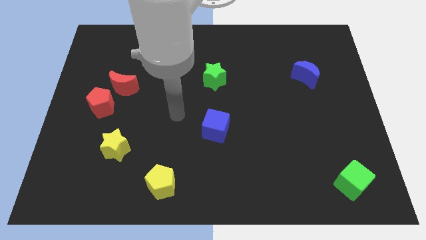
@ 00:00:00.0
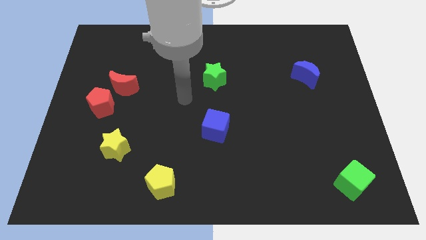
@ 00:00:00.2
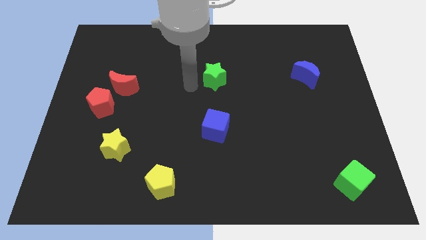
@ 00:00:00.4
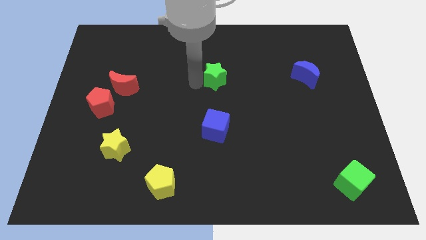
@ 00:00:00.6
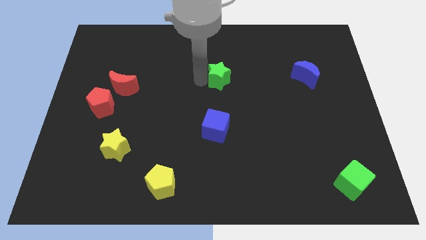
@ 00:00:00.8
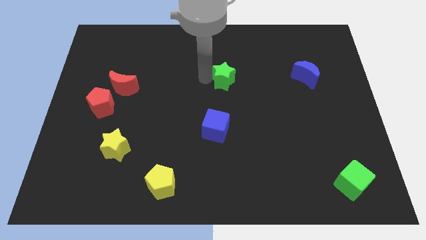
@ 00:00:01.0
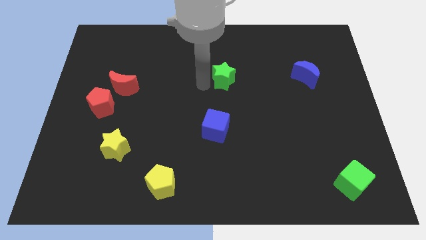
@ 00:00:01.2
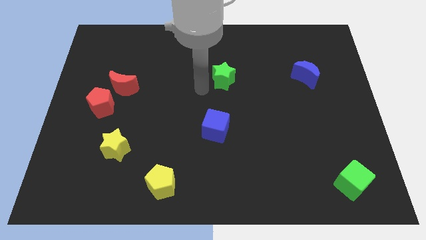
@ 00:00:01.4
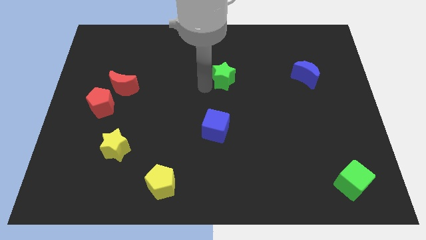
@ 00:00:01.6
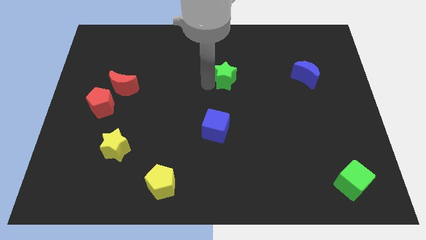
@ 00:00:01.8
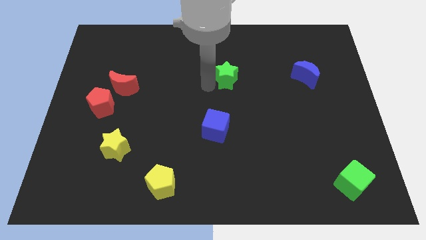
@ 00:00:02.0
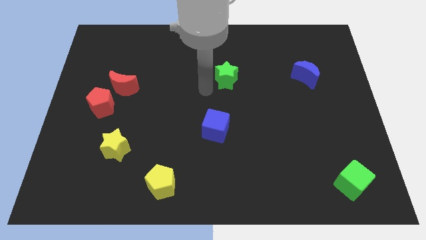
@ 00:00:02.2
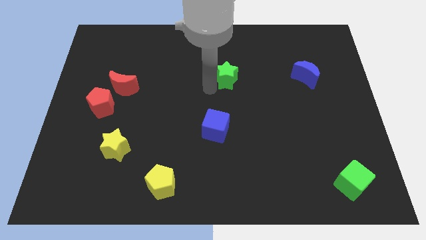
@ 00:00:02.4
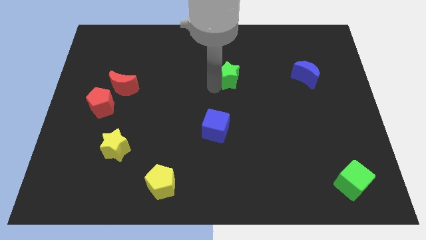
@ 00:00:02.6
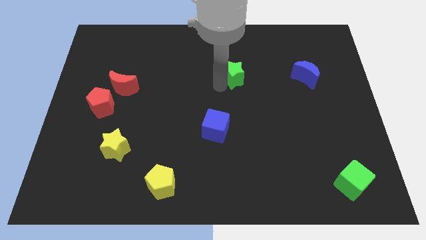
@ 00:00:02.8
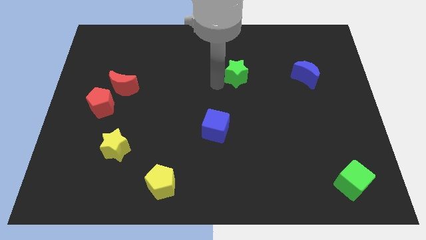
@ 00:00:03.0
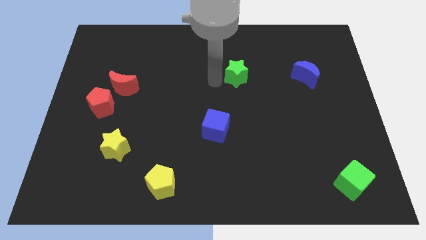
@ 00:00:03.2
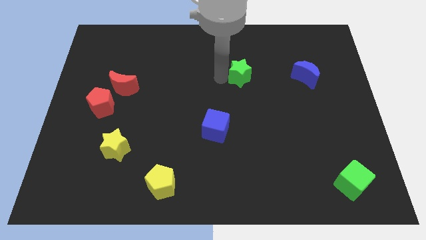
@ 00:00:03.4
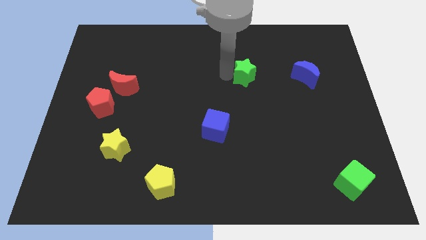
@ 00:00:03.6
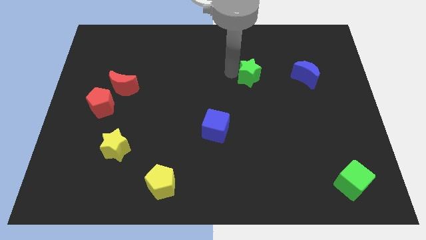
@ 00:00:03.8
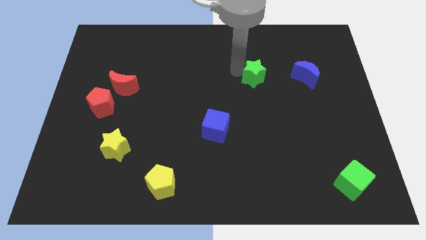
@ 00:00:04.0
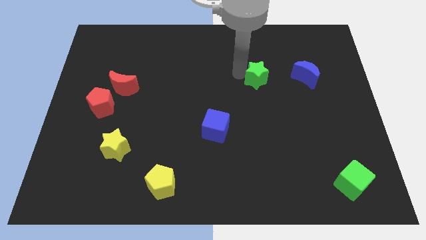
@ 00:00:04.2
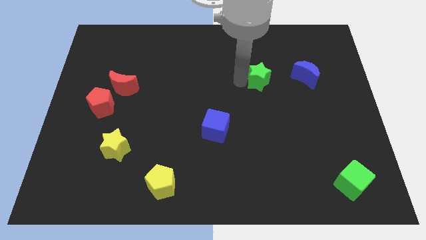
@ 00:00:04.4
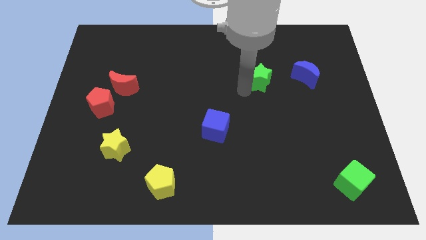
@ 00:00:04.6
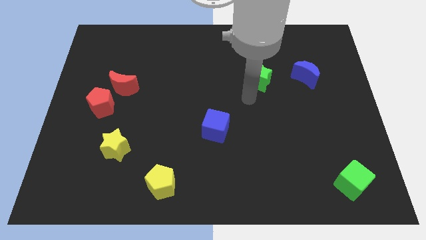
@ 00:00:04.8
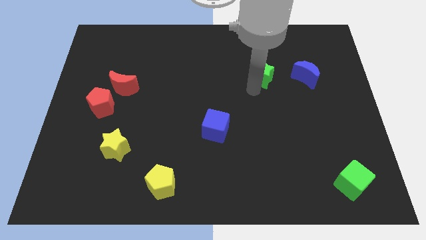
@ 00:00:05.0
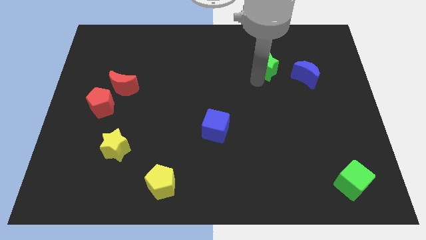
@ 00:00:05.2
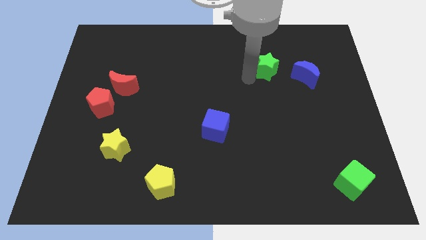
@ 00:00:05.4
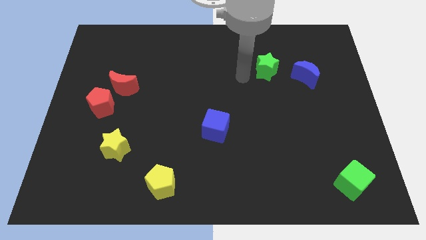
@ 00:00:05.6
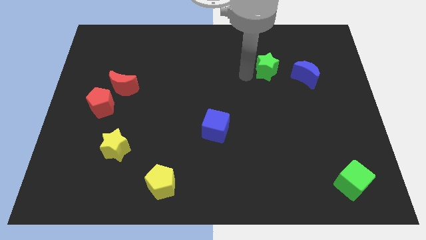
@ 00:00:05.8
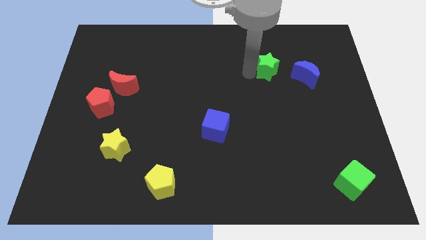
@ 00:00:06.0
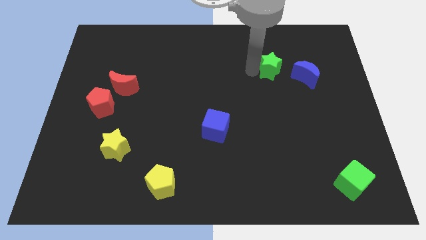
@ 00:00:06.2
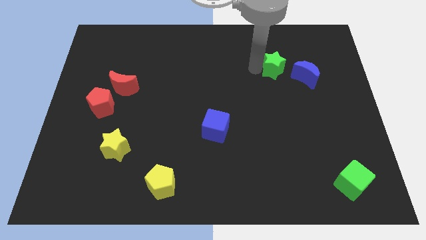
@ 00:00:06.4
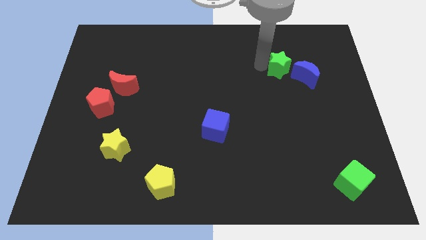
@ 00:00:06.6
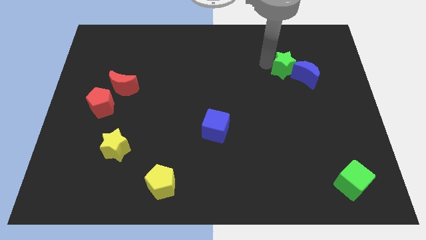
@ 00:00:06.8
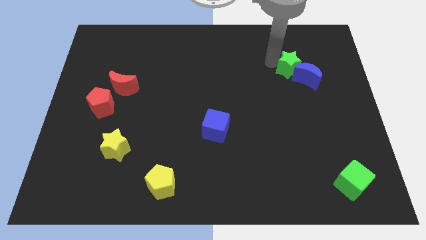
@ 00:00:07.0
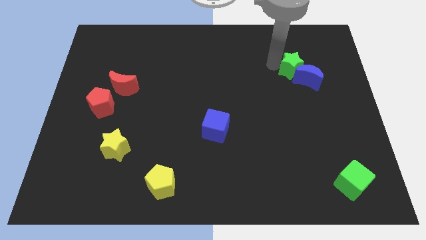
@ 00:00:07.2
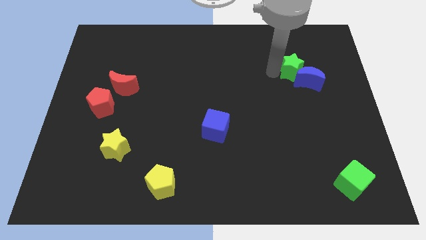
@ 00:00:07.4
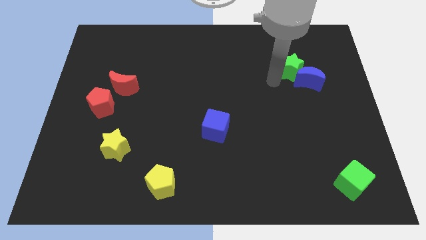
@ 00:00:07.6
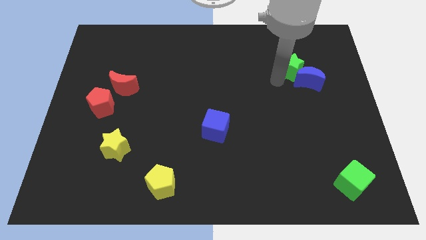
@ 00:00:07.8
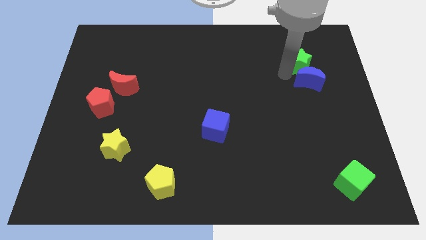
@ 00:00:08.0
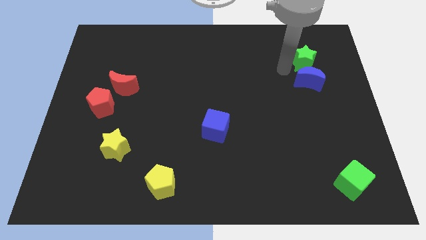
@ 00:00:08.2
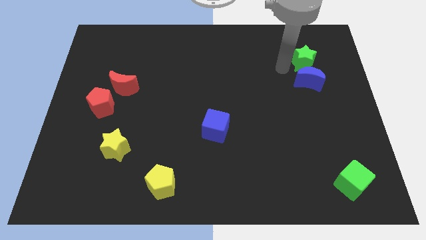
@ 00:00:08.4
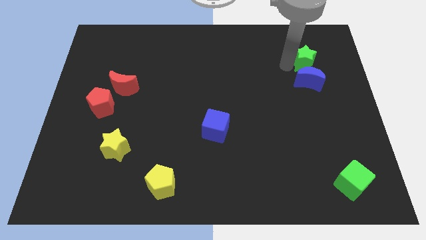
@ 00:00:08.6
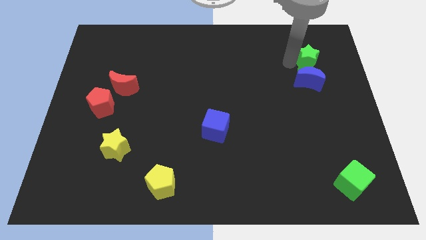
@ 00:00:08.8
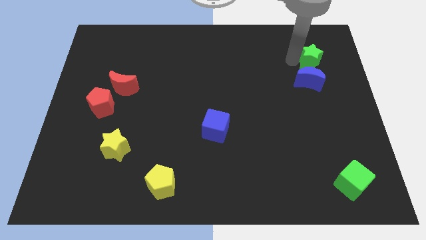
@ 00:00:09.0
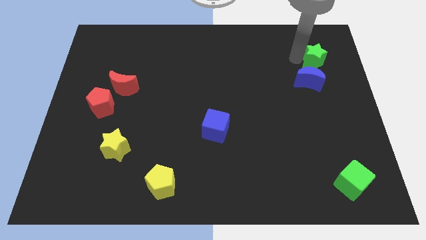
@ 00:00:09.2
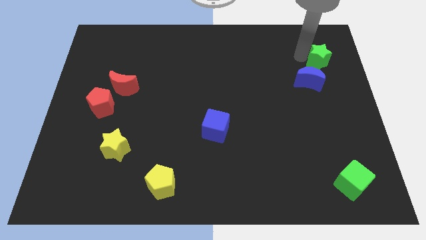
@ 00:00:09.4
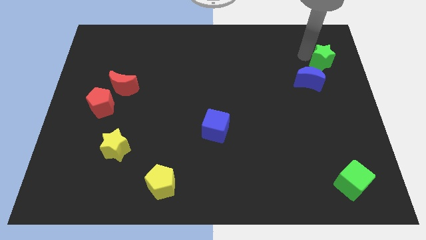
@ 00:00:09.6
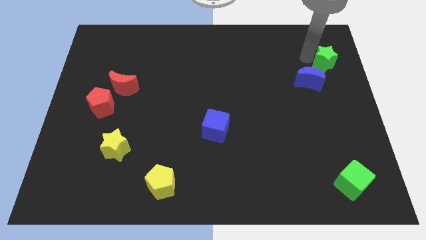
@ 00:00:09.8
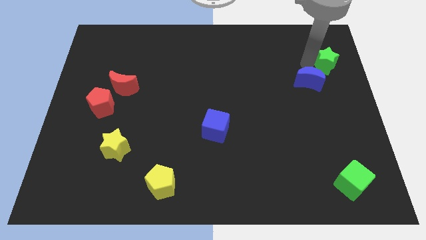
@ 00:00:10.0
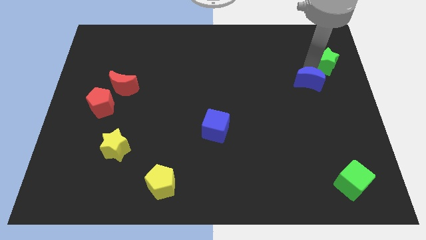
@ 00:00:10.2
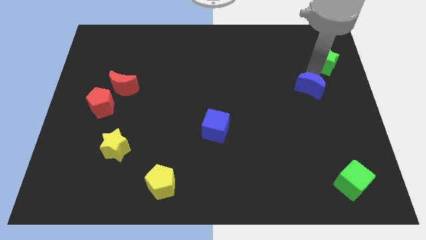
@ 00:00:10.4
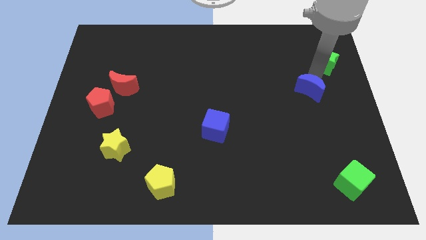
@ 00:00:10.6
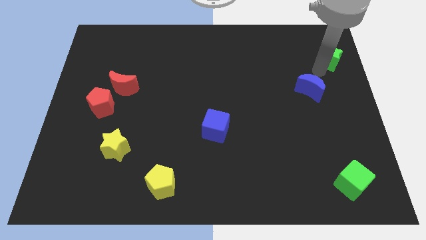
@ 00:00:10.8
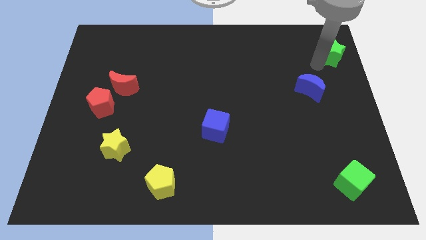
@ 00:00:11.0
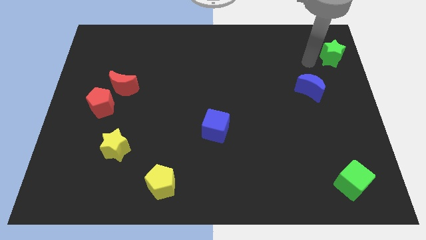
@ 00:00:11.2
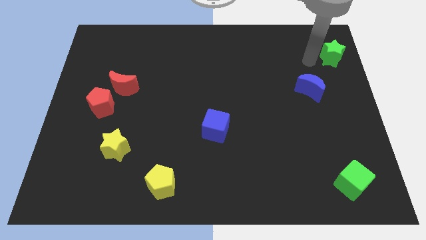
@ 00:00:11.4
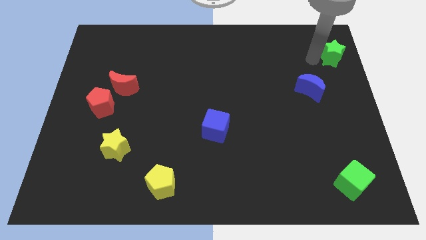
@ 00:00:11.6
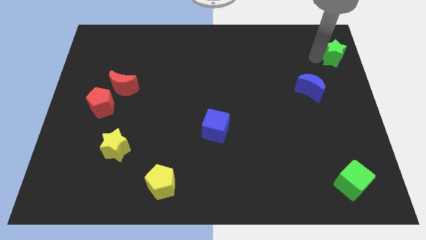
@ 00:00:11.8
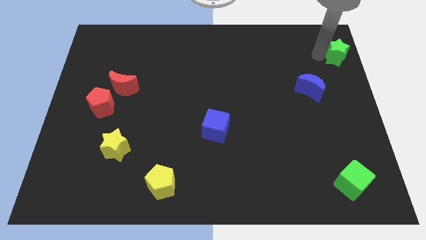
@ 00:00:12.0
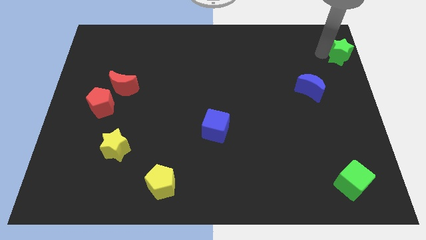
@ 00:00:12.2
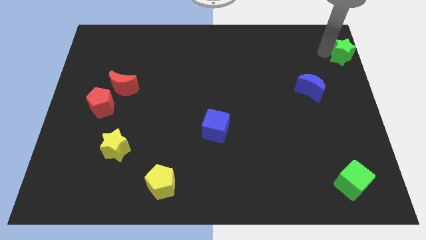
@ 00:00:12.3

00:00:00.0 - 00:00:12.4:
push the green star to the upper right corner

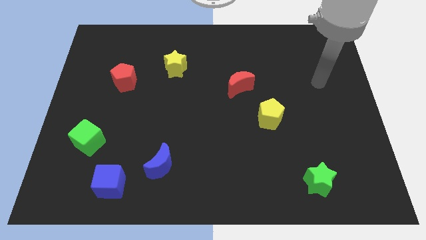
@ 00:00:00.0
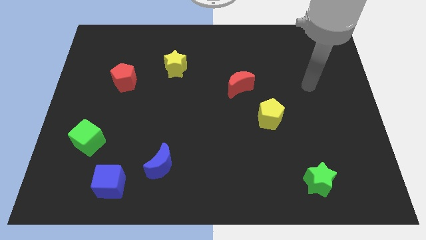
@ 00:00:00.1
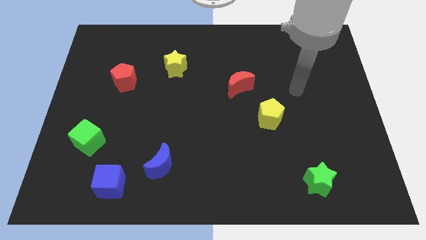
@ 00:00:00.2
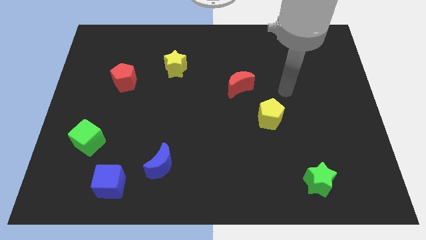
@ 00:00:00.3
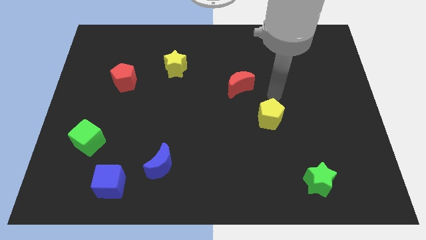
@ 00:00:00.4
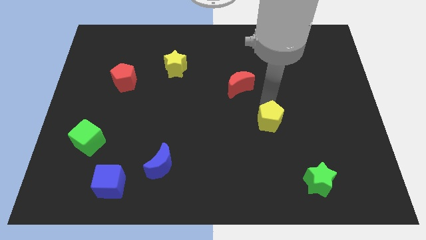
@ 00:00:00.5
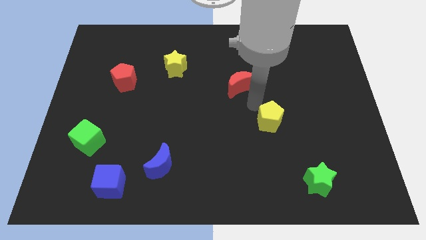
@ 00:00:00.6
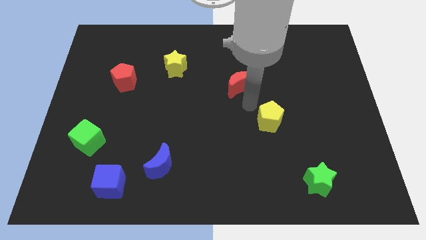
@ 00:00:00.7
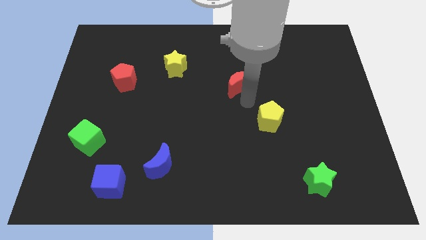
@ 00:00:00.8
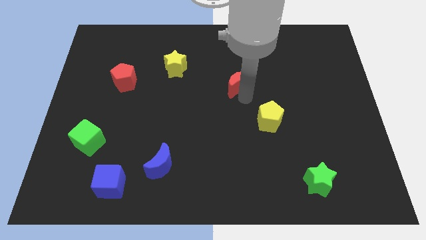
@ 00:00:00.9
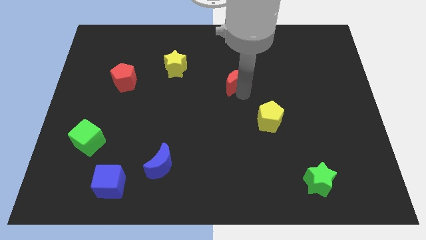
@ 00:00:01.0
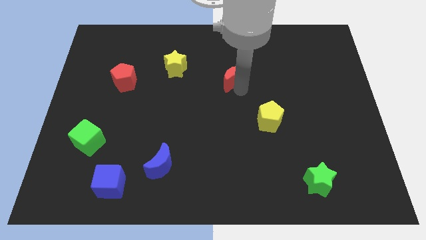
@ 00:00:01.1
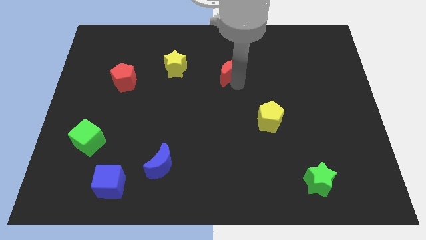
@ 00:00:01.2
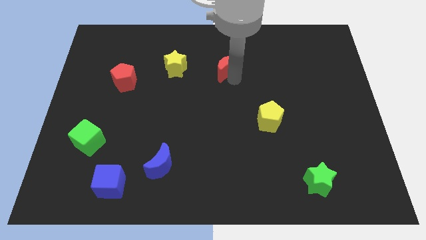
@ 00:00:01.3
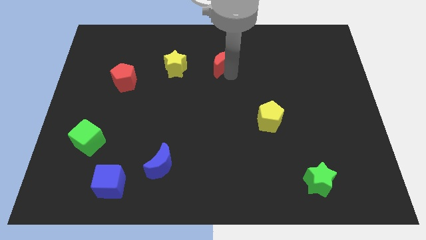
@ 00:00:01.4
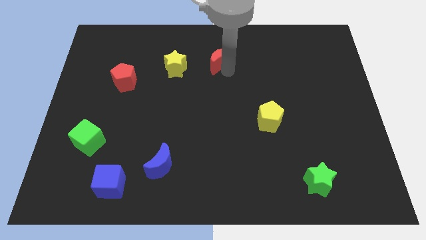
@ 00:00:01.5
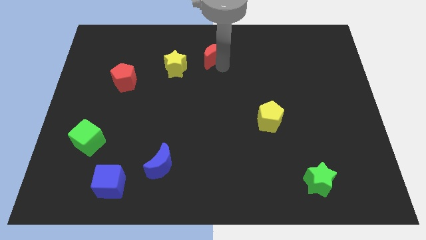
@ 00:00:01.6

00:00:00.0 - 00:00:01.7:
put the red moon to the top

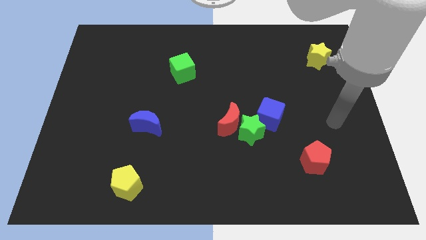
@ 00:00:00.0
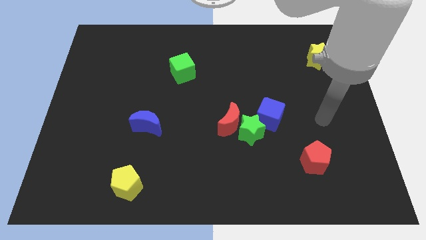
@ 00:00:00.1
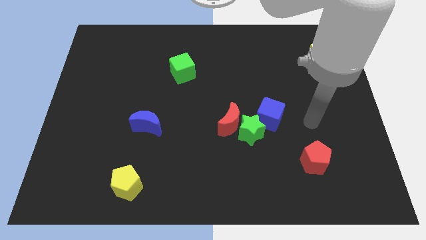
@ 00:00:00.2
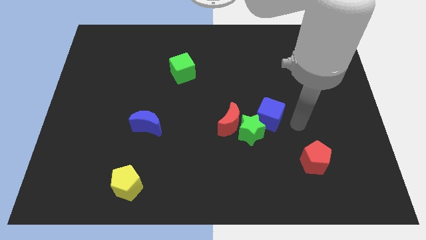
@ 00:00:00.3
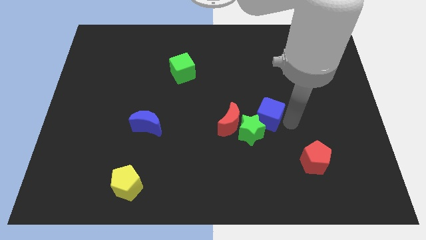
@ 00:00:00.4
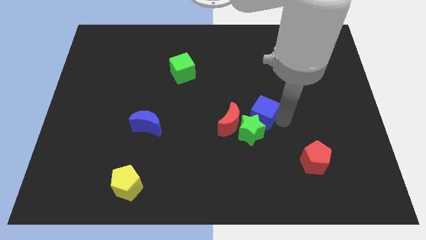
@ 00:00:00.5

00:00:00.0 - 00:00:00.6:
move the blue cube to the middle of the board
